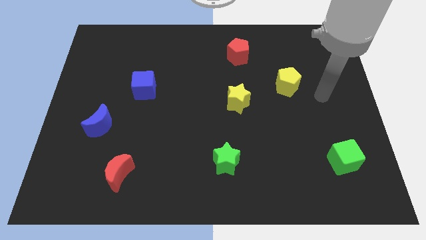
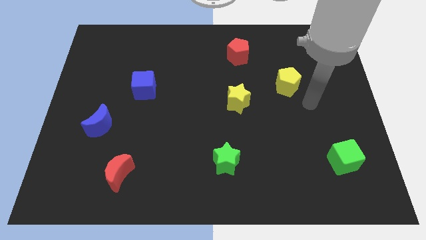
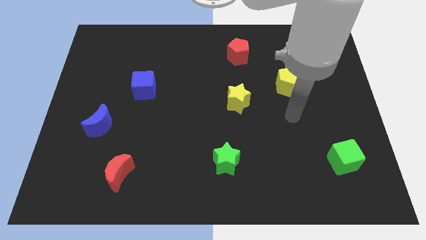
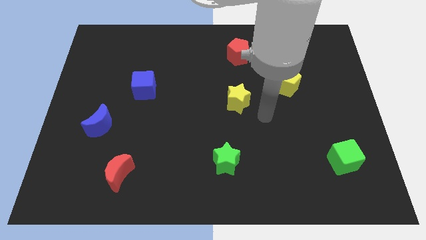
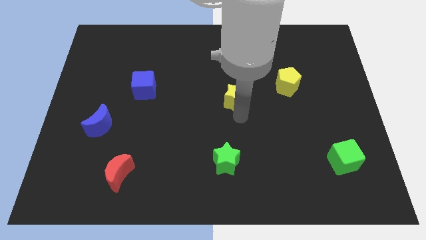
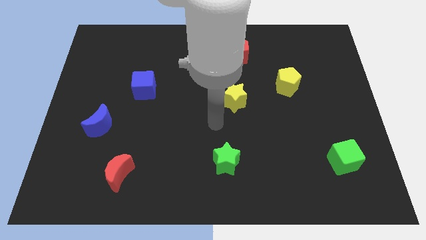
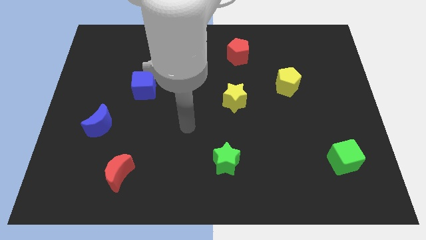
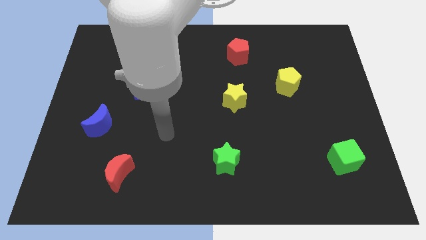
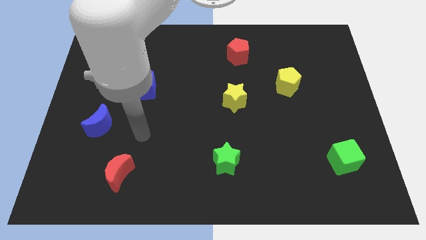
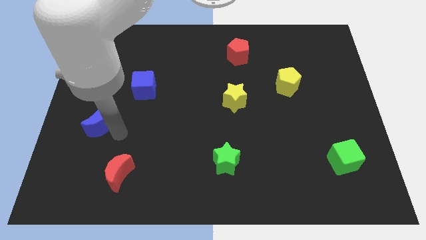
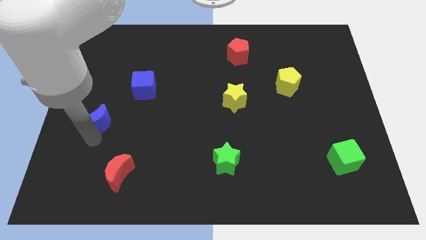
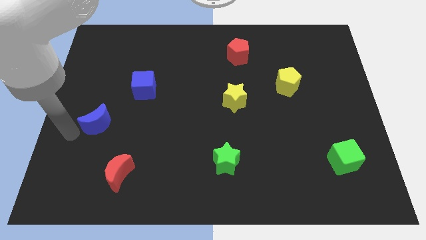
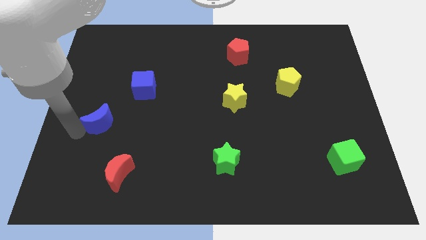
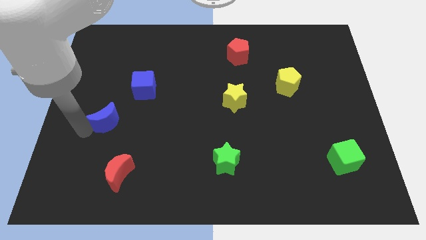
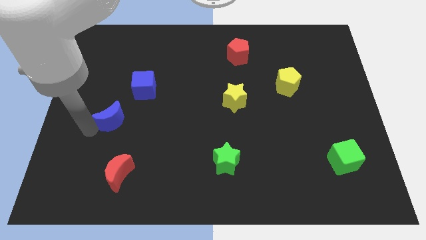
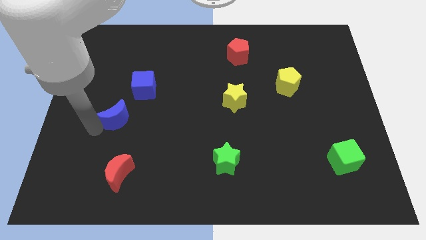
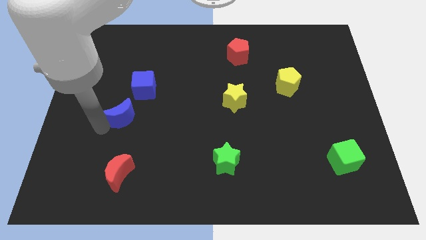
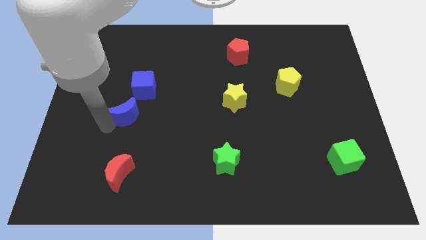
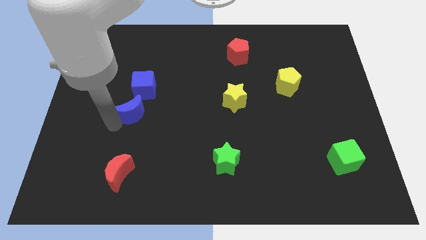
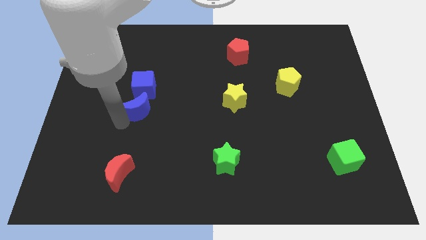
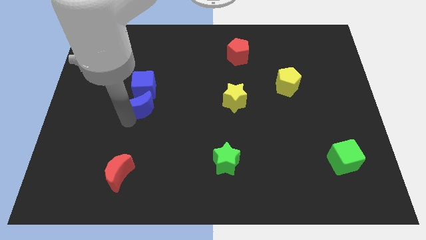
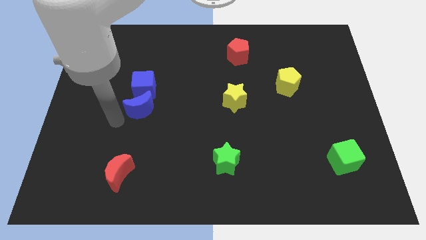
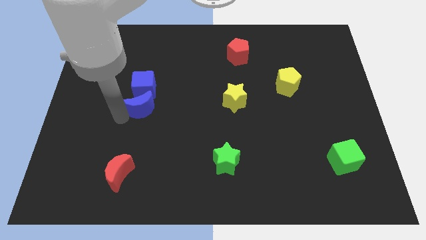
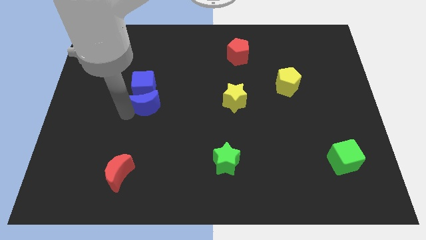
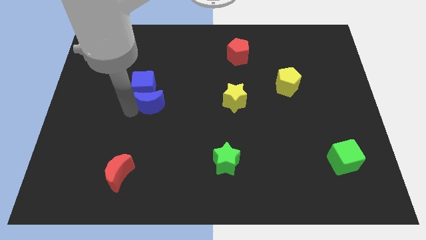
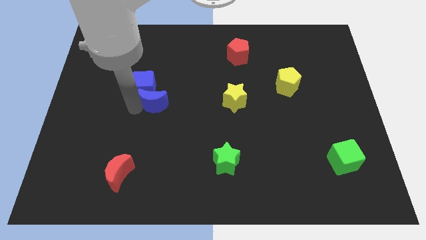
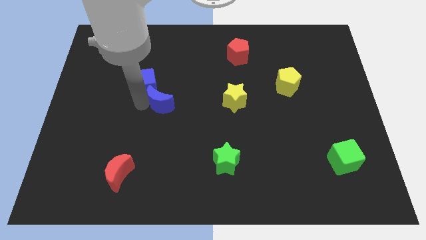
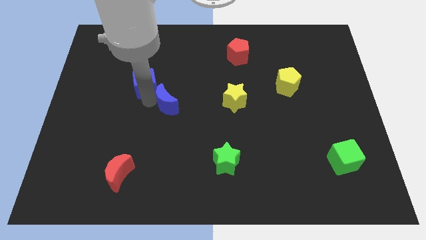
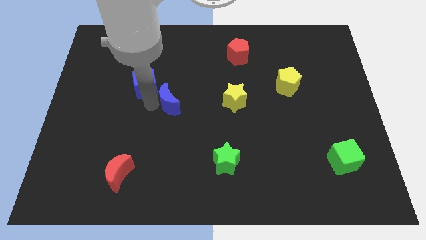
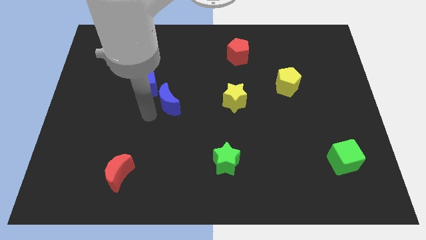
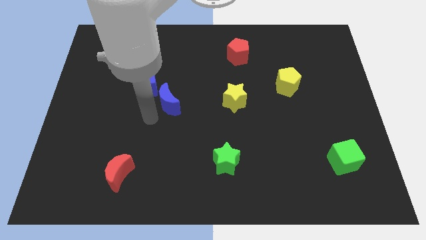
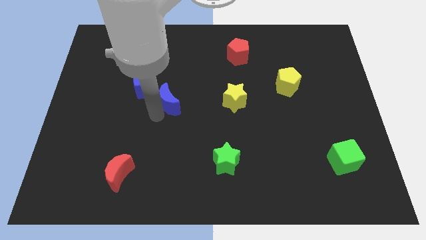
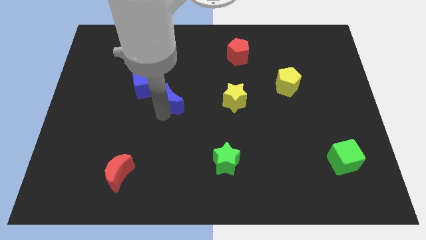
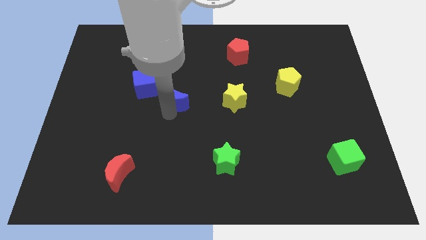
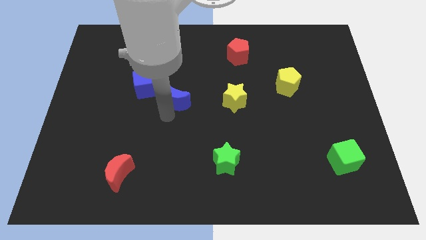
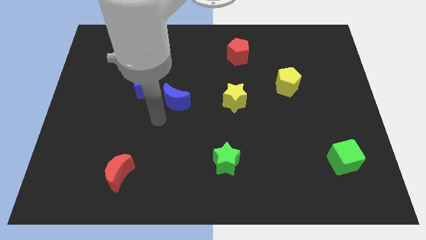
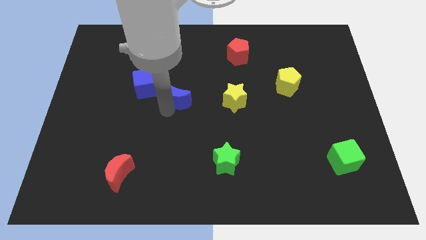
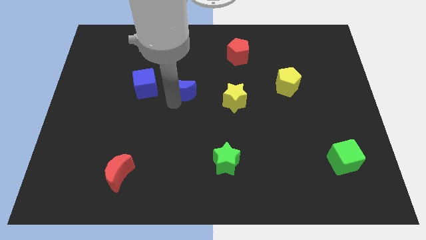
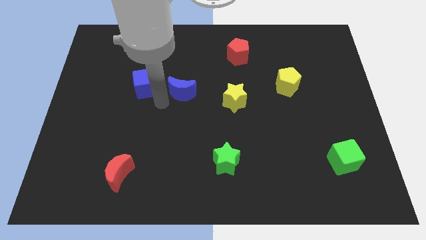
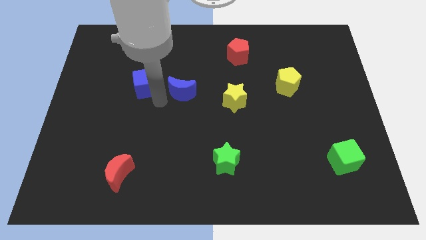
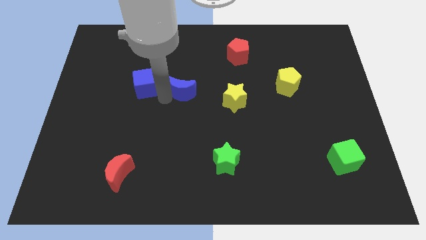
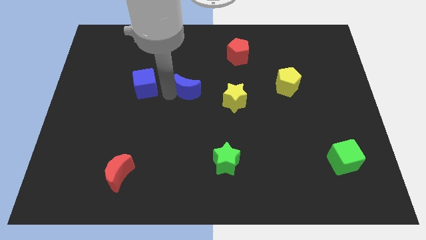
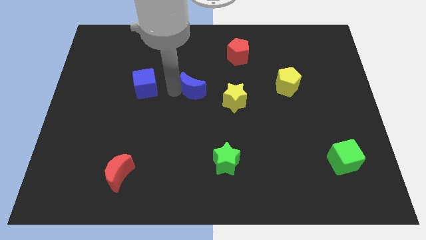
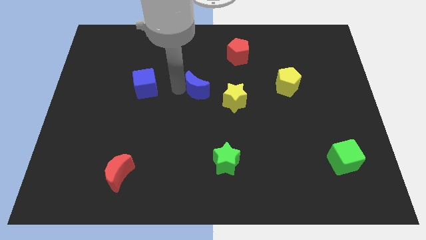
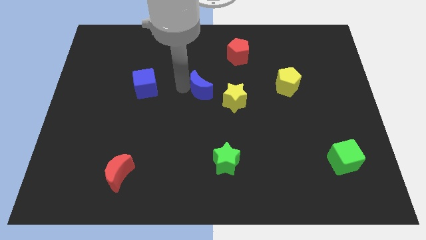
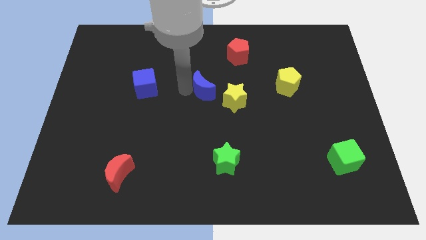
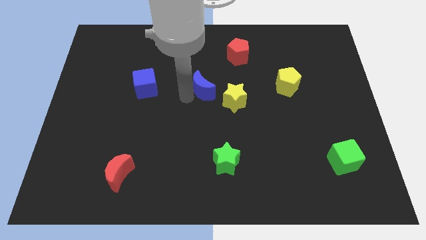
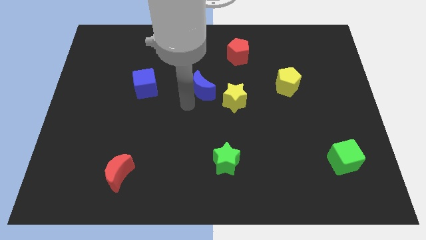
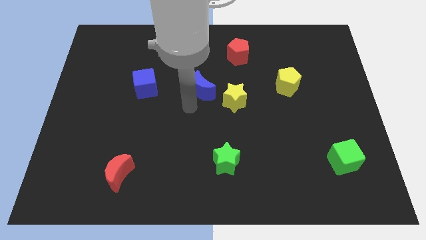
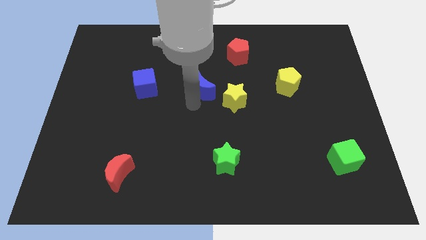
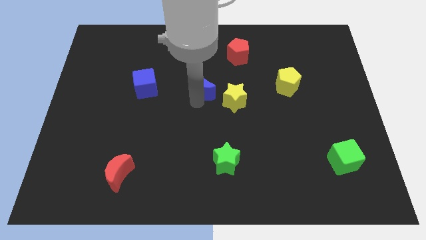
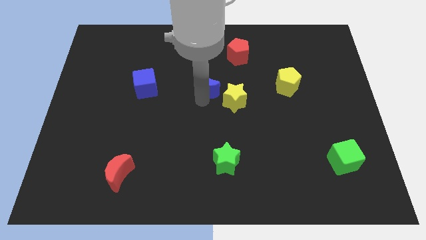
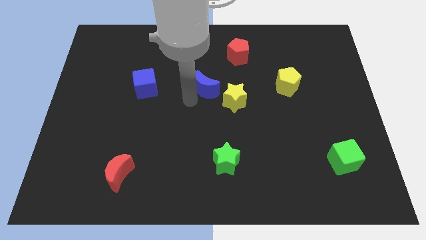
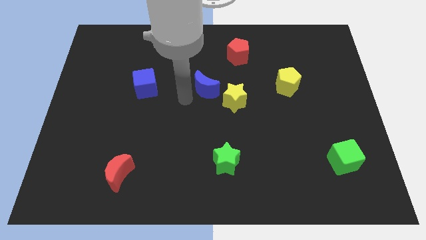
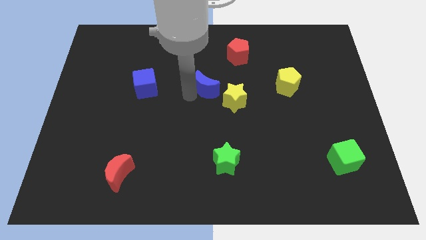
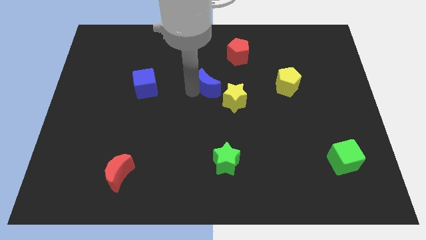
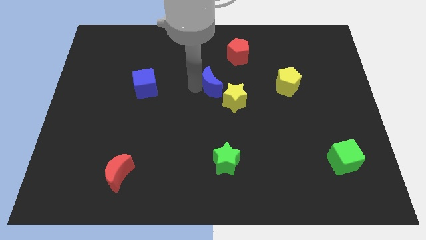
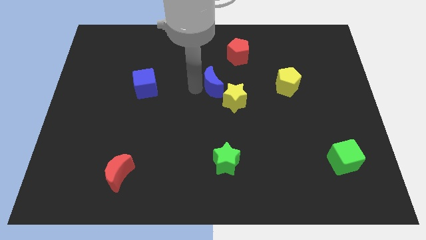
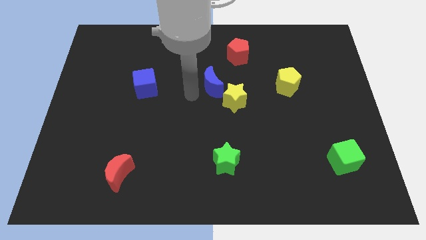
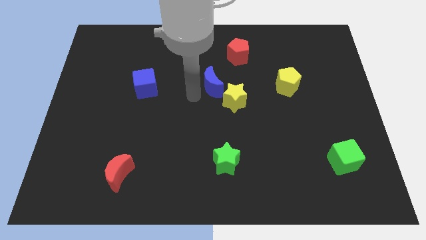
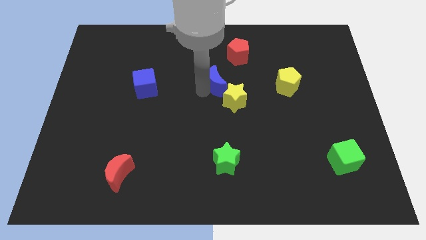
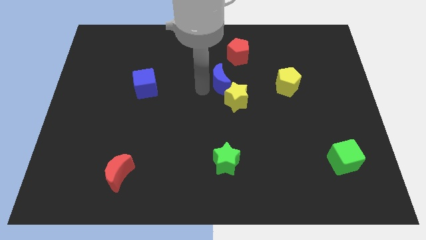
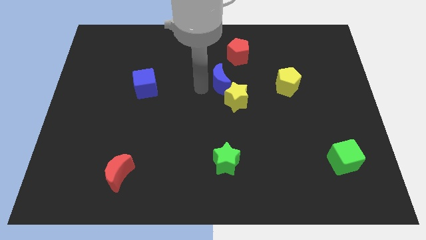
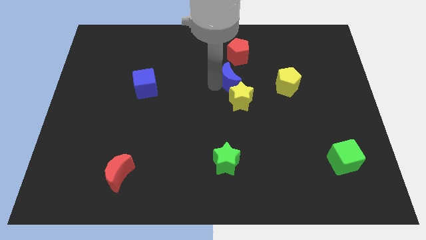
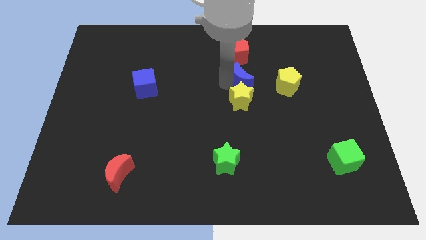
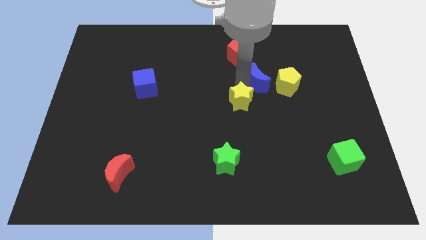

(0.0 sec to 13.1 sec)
move the blue moon to the top left of the yellow pentagon
